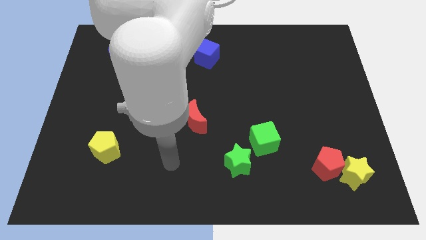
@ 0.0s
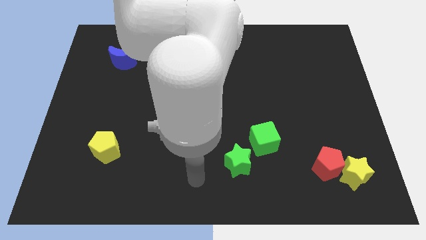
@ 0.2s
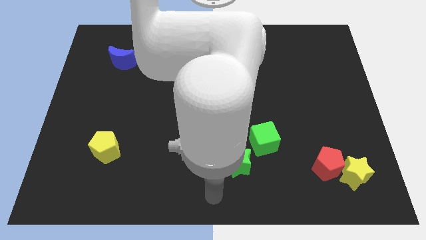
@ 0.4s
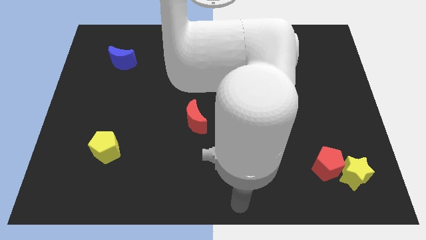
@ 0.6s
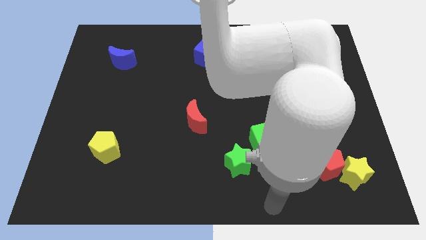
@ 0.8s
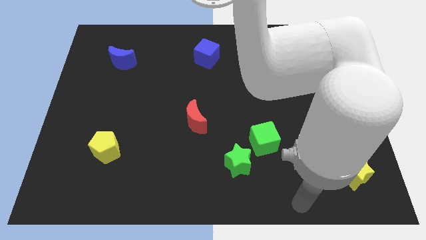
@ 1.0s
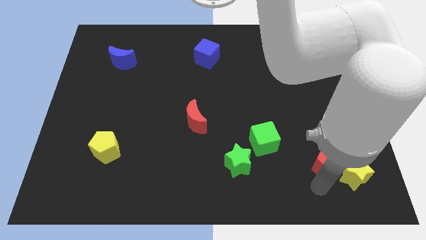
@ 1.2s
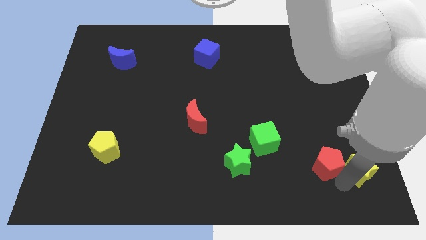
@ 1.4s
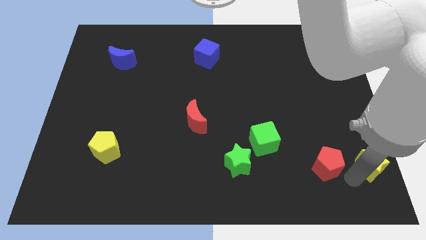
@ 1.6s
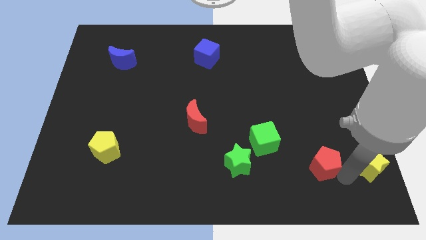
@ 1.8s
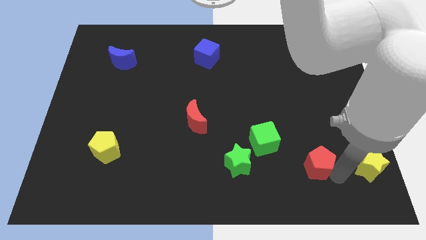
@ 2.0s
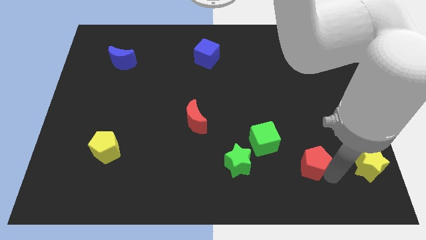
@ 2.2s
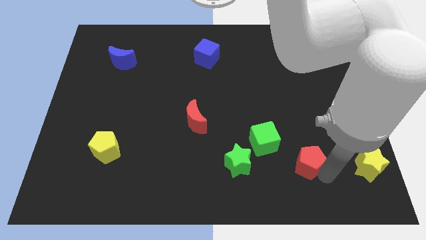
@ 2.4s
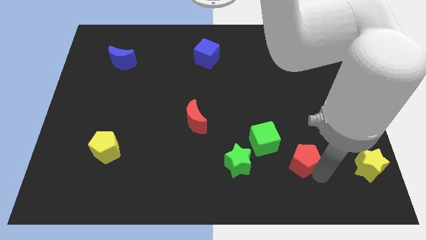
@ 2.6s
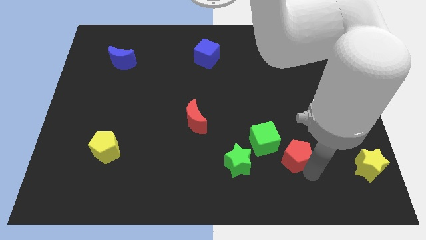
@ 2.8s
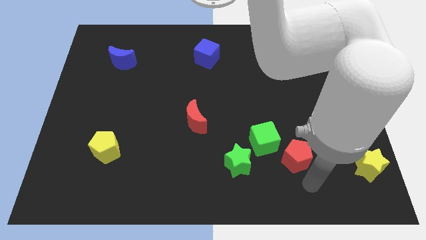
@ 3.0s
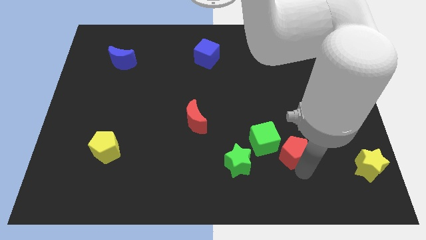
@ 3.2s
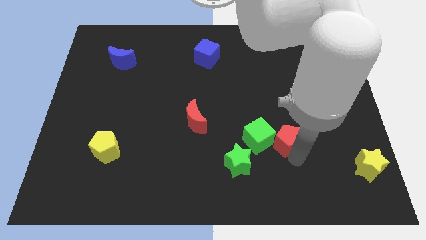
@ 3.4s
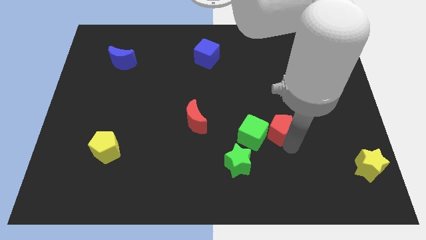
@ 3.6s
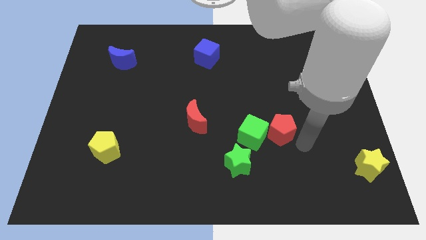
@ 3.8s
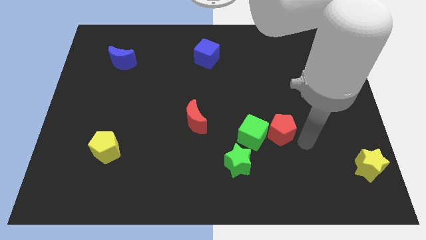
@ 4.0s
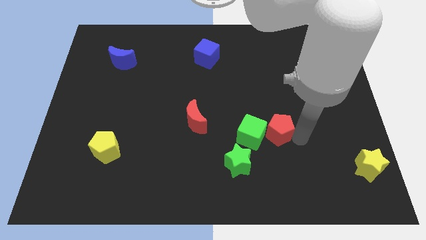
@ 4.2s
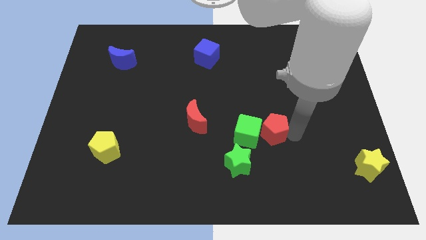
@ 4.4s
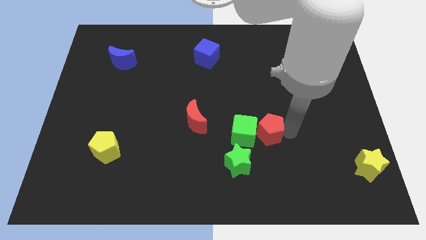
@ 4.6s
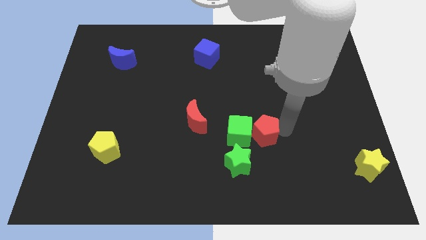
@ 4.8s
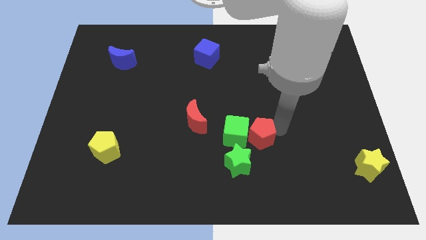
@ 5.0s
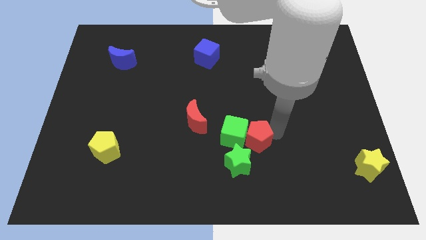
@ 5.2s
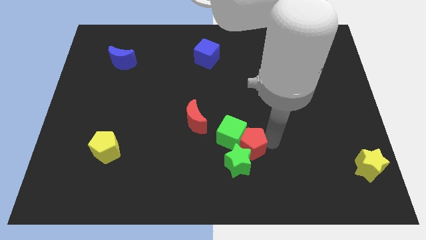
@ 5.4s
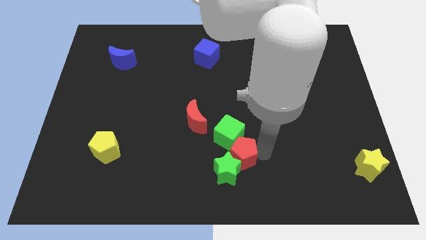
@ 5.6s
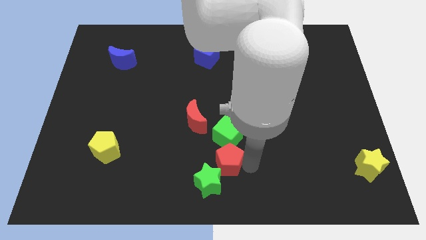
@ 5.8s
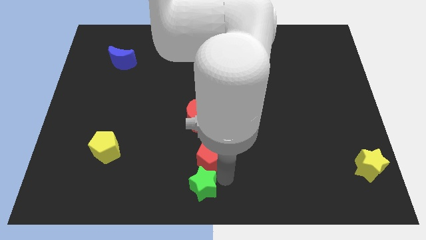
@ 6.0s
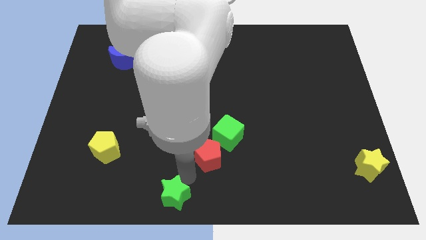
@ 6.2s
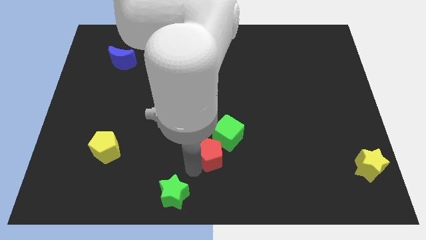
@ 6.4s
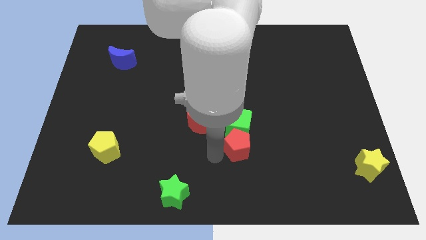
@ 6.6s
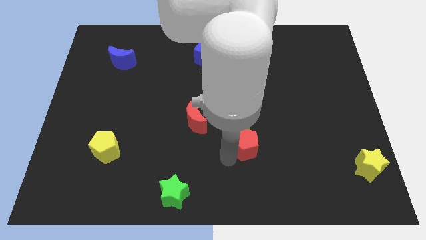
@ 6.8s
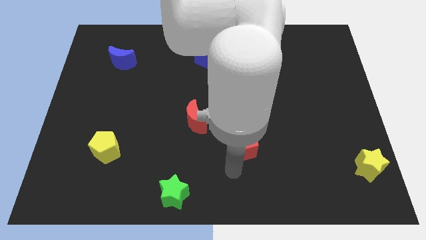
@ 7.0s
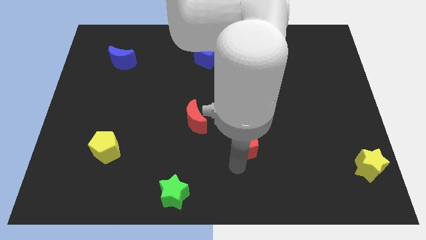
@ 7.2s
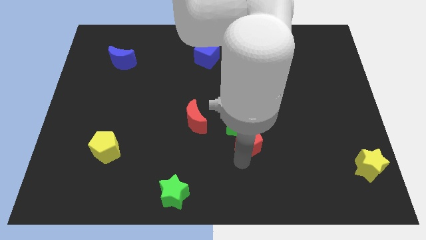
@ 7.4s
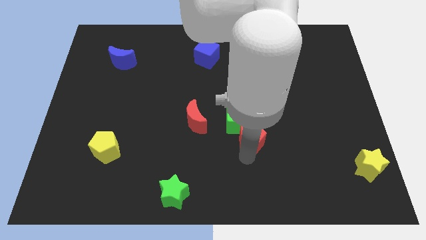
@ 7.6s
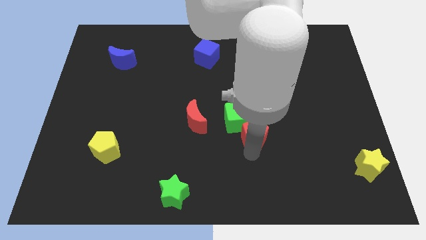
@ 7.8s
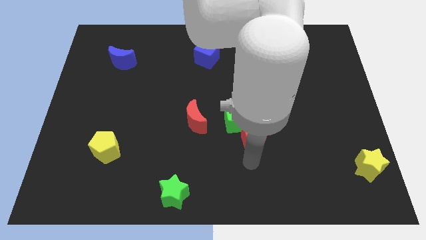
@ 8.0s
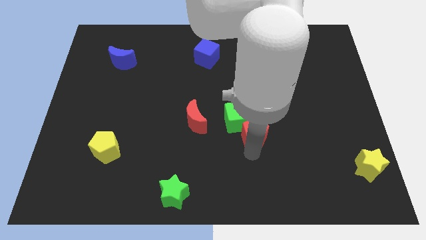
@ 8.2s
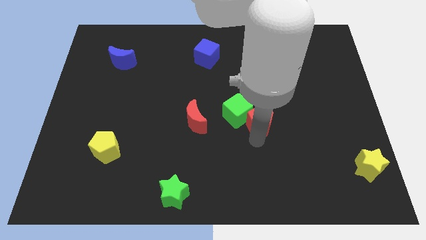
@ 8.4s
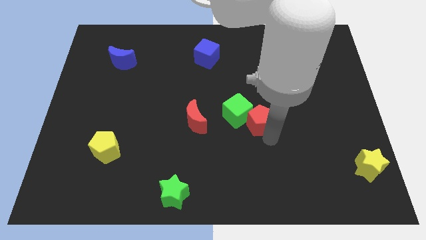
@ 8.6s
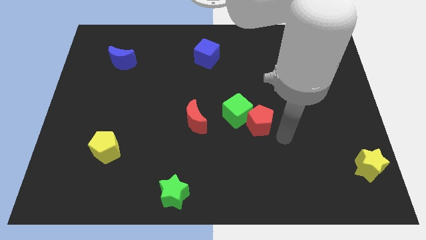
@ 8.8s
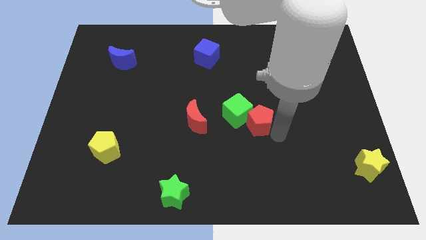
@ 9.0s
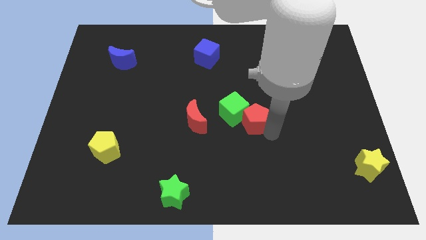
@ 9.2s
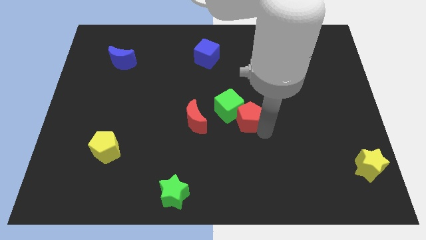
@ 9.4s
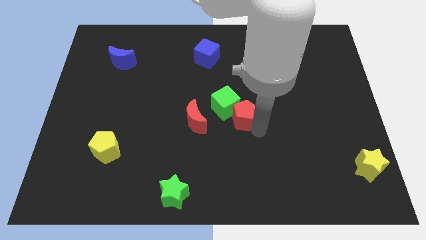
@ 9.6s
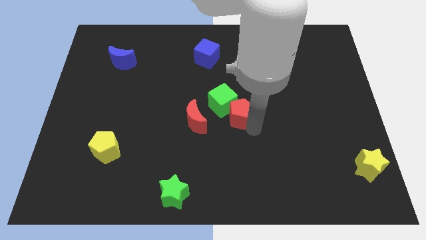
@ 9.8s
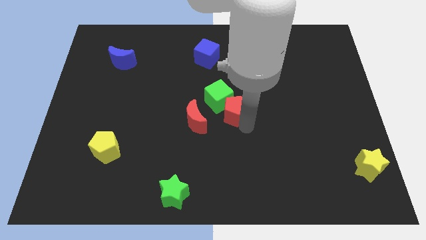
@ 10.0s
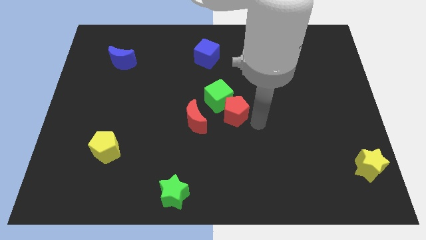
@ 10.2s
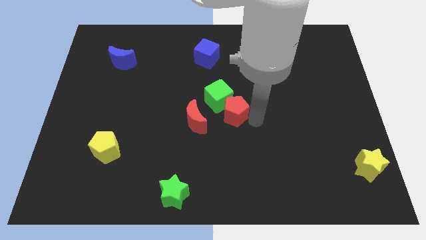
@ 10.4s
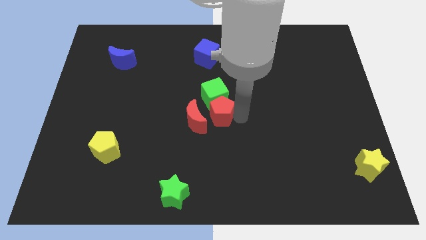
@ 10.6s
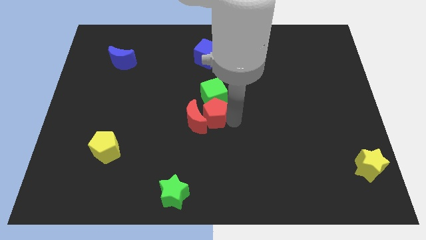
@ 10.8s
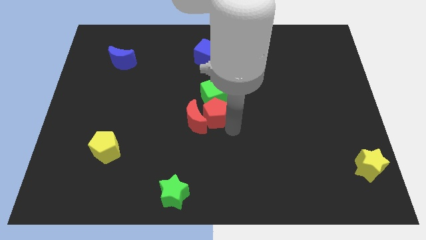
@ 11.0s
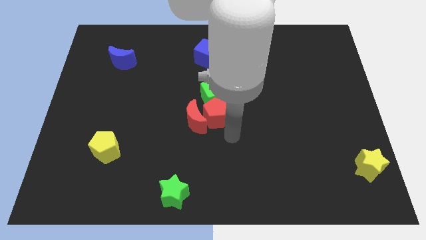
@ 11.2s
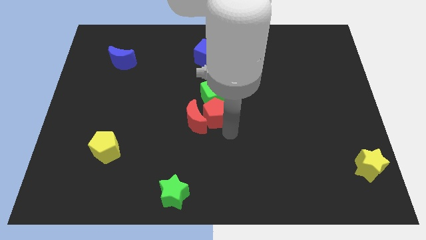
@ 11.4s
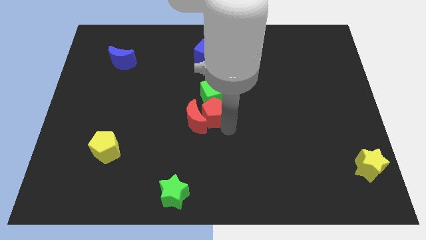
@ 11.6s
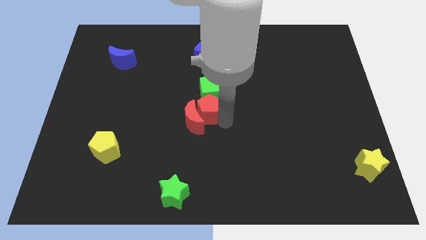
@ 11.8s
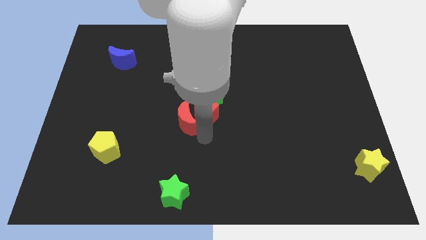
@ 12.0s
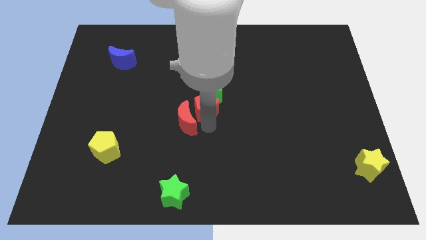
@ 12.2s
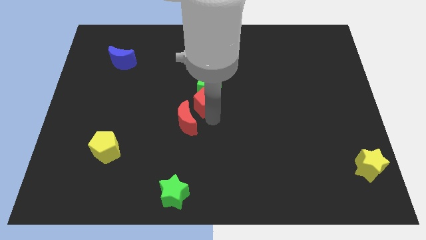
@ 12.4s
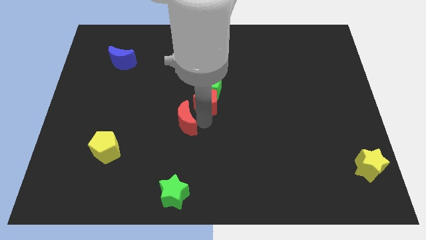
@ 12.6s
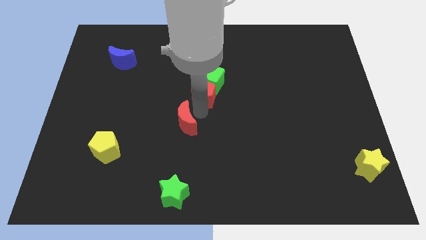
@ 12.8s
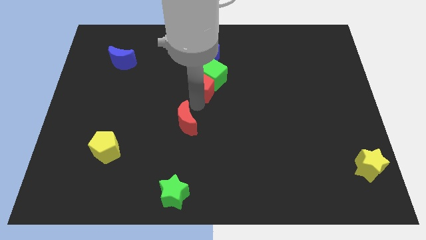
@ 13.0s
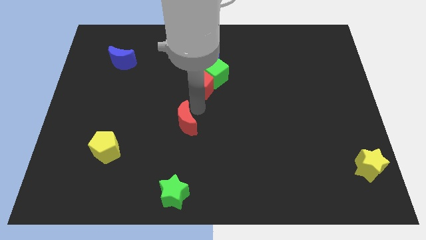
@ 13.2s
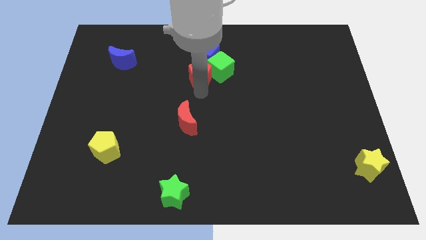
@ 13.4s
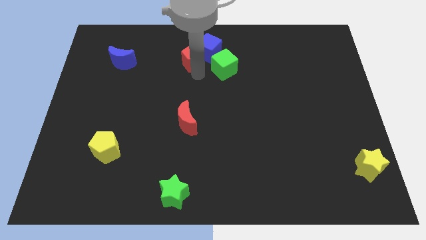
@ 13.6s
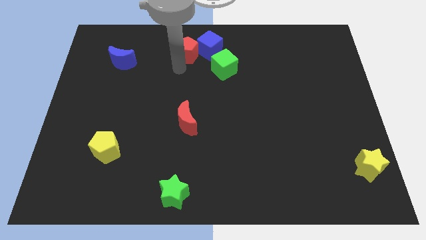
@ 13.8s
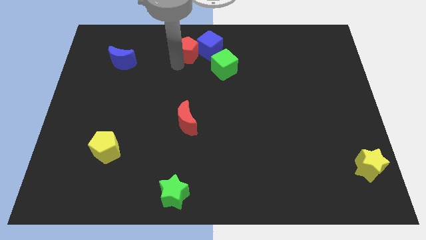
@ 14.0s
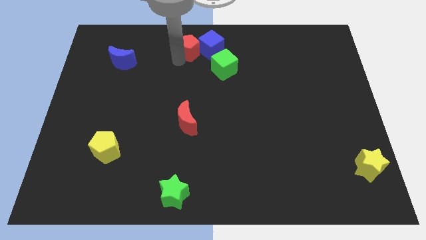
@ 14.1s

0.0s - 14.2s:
push the red pentagon to the top

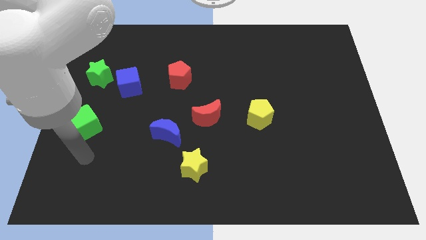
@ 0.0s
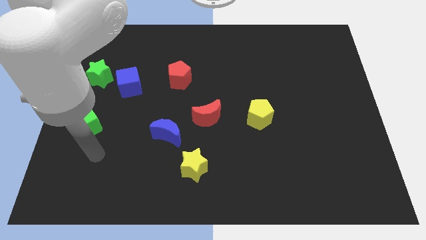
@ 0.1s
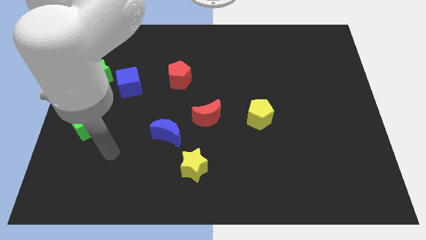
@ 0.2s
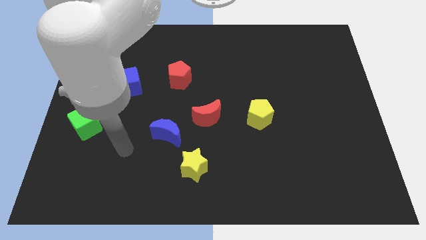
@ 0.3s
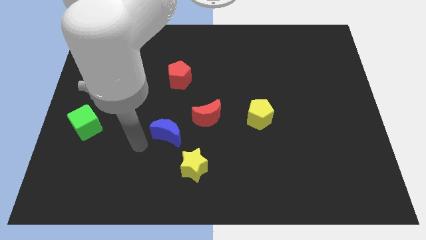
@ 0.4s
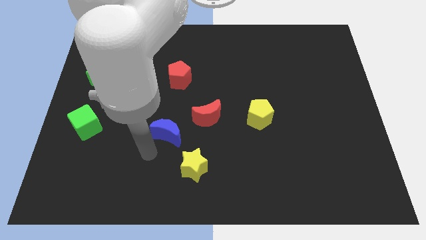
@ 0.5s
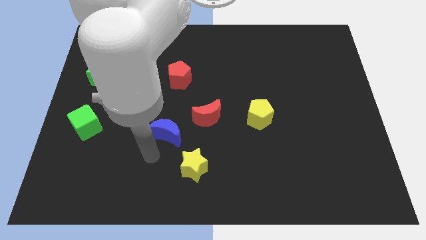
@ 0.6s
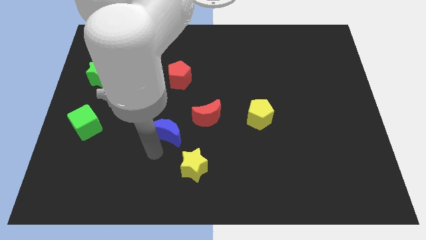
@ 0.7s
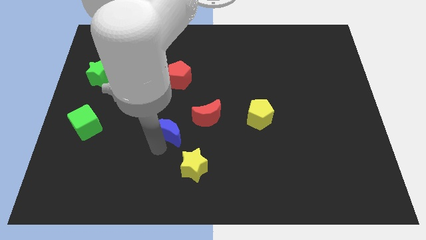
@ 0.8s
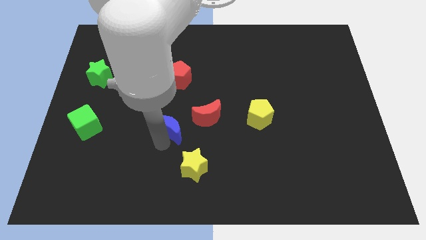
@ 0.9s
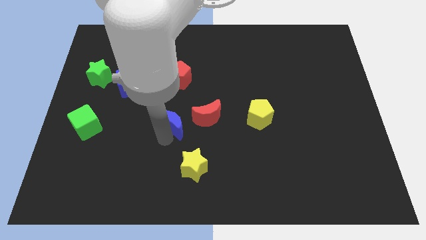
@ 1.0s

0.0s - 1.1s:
push the blue moon to the middle
